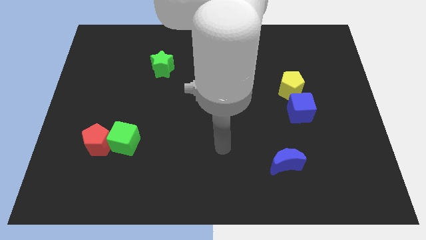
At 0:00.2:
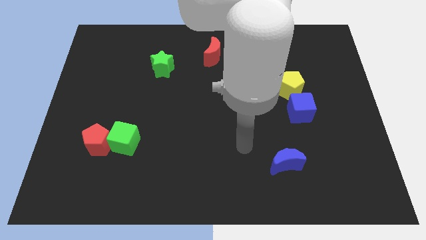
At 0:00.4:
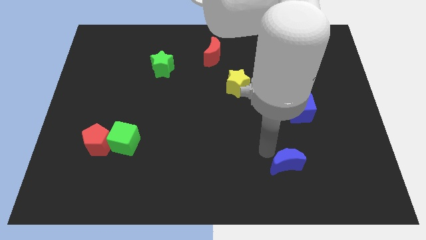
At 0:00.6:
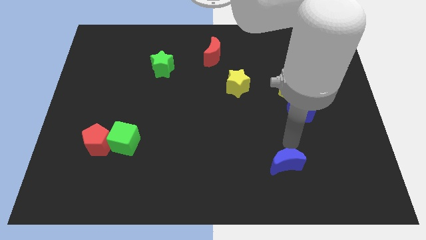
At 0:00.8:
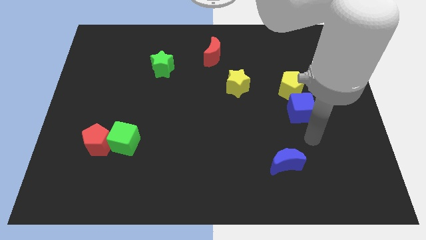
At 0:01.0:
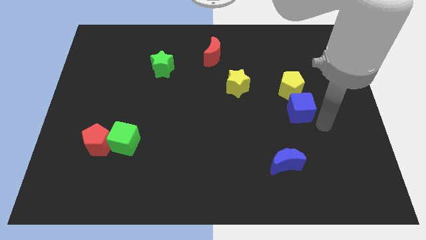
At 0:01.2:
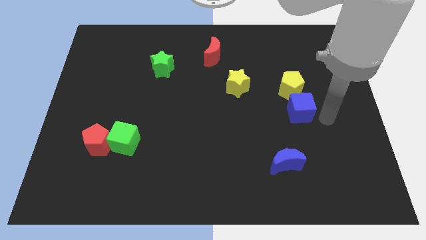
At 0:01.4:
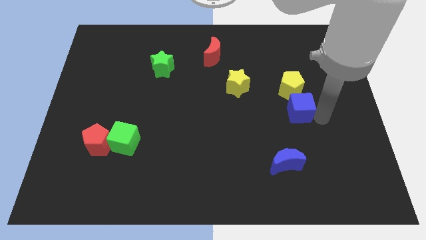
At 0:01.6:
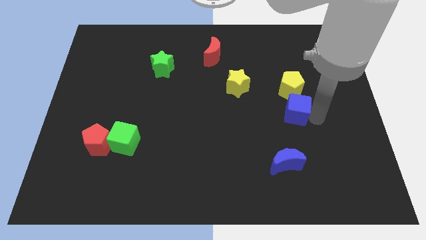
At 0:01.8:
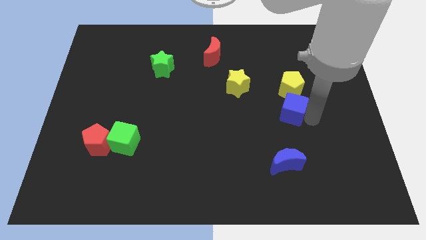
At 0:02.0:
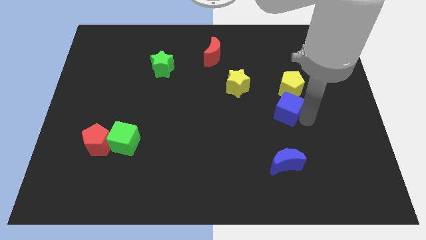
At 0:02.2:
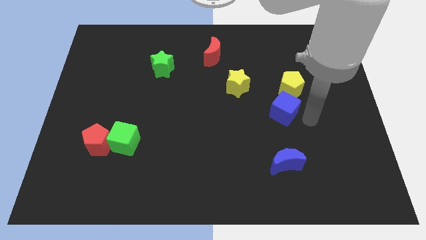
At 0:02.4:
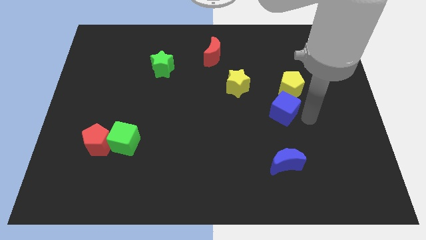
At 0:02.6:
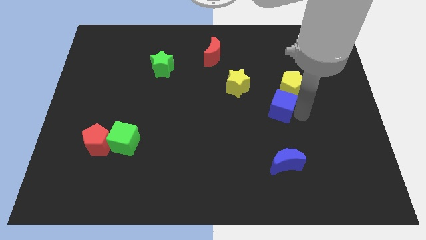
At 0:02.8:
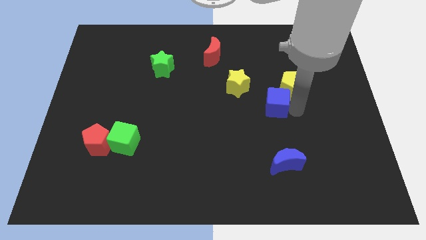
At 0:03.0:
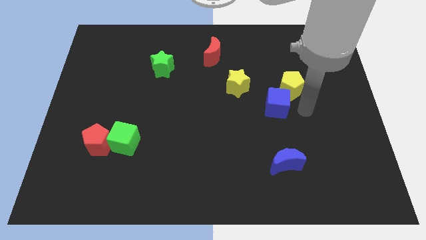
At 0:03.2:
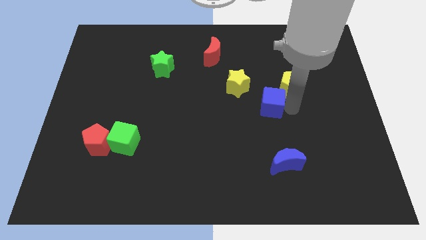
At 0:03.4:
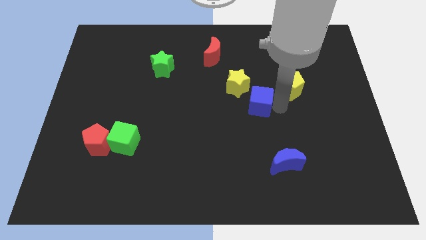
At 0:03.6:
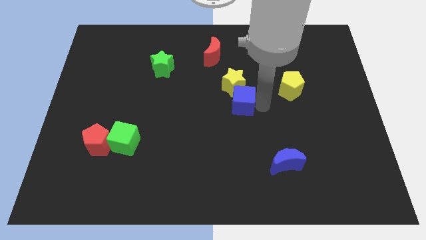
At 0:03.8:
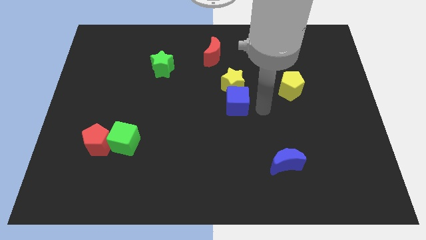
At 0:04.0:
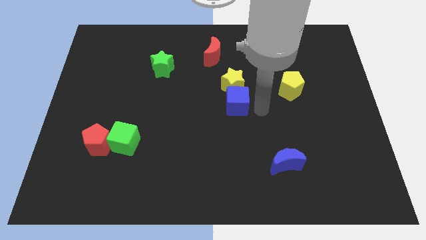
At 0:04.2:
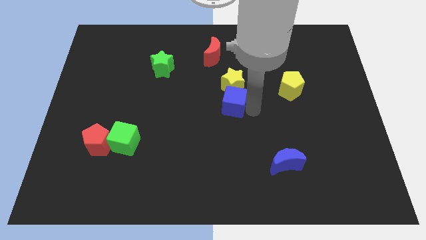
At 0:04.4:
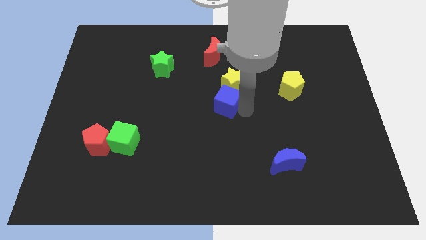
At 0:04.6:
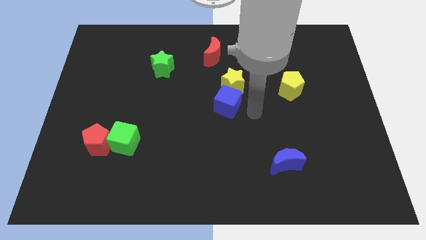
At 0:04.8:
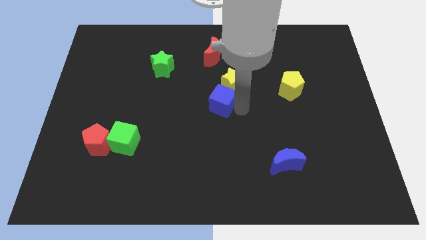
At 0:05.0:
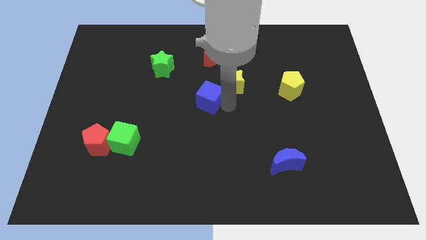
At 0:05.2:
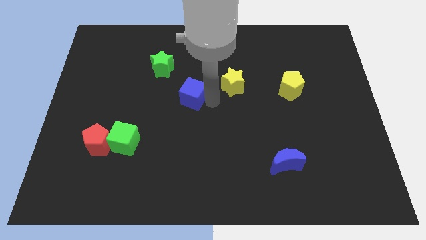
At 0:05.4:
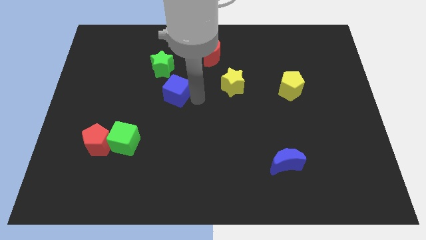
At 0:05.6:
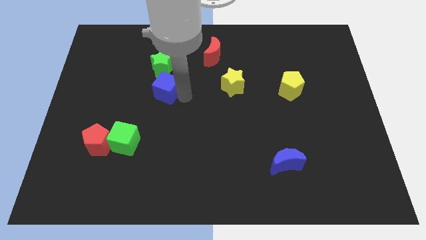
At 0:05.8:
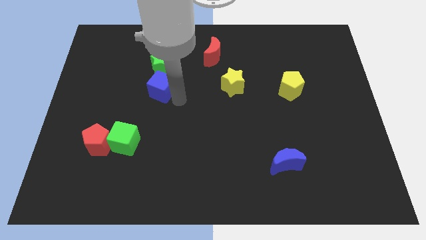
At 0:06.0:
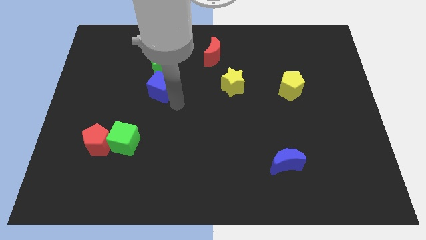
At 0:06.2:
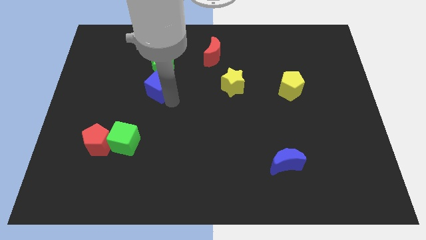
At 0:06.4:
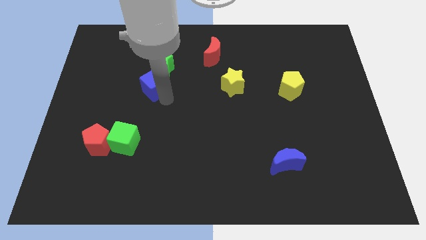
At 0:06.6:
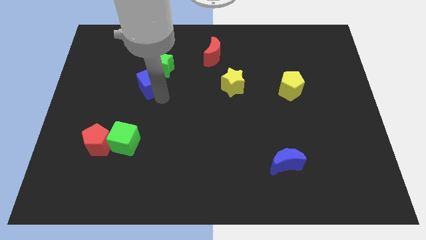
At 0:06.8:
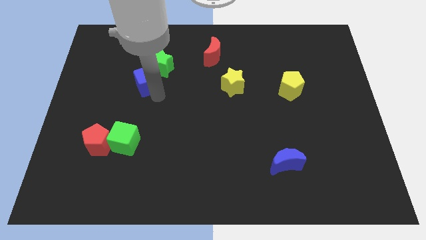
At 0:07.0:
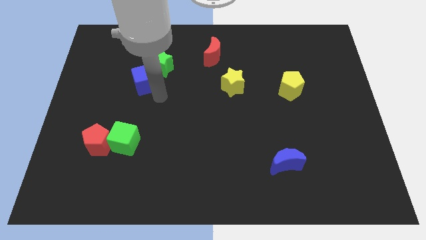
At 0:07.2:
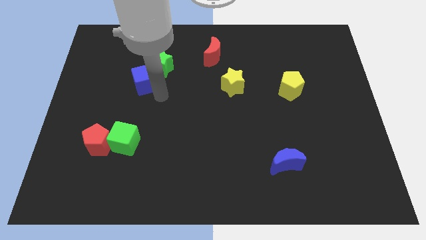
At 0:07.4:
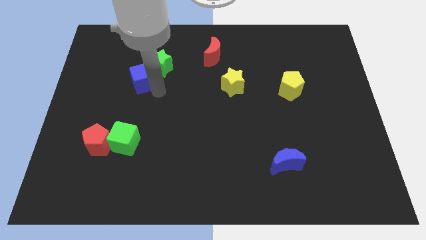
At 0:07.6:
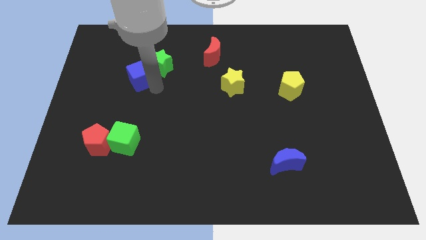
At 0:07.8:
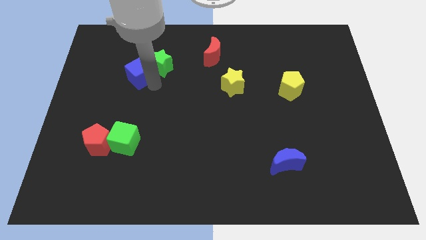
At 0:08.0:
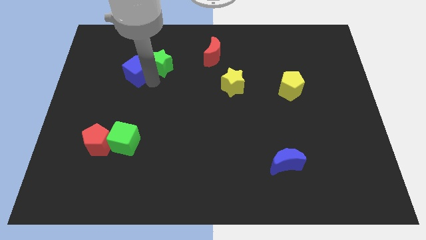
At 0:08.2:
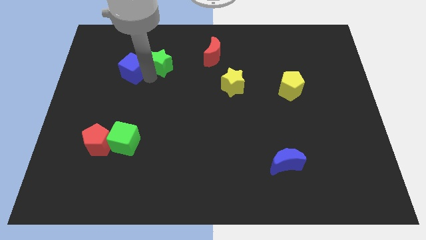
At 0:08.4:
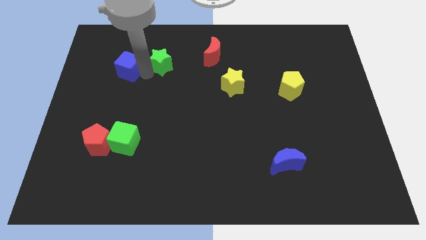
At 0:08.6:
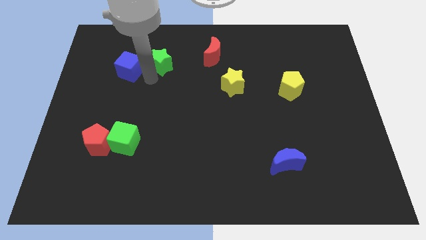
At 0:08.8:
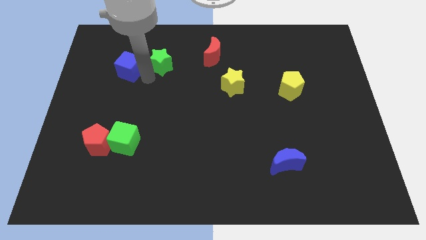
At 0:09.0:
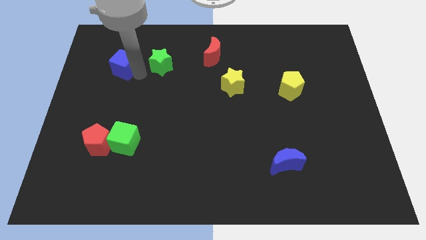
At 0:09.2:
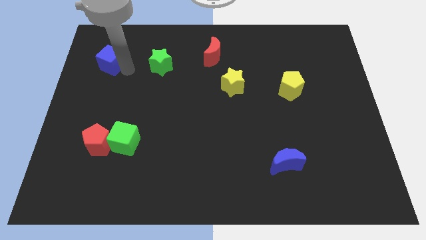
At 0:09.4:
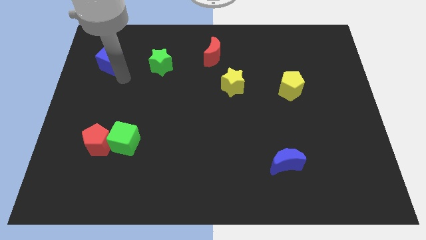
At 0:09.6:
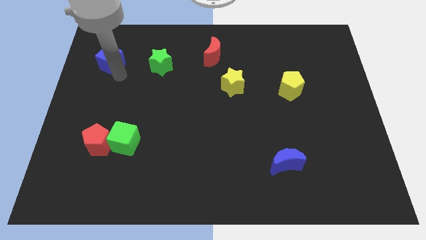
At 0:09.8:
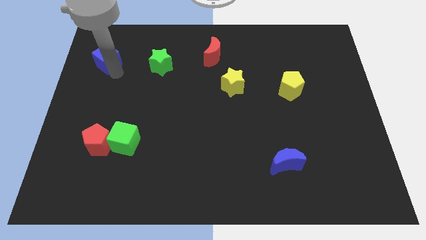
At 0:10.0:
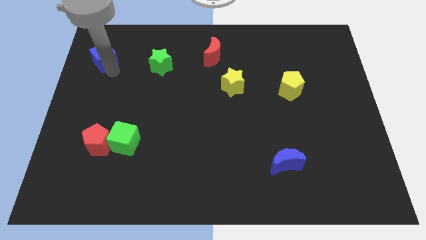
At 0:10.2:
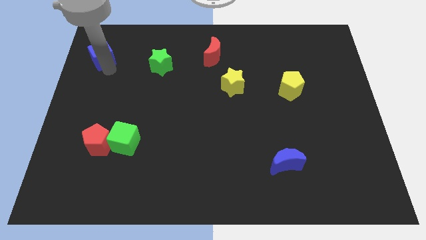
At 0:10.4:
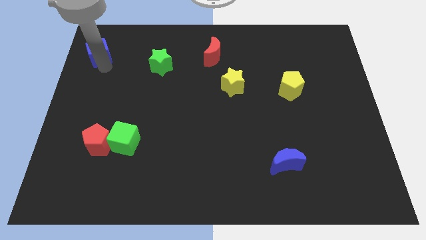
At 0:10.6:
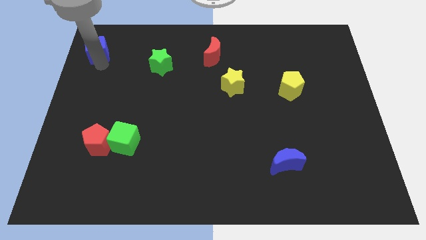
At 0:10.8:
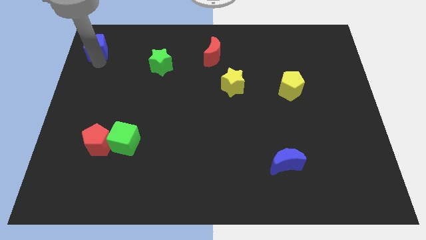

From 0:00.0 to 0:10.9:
move the blue cube to the top left corner

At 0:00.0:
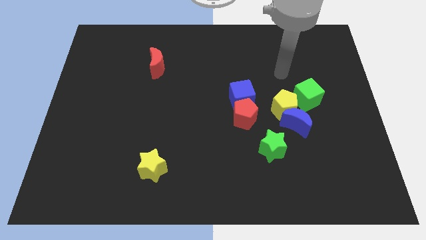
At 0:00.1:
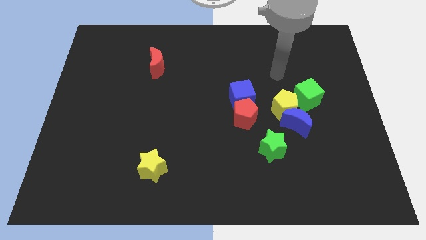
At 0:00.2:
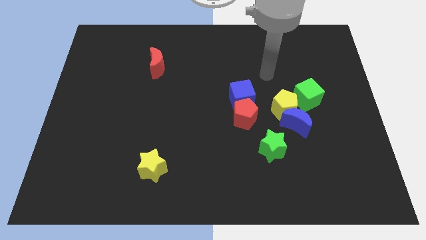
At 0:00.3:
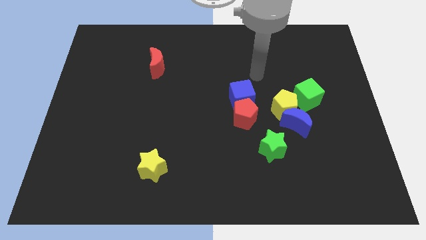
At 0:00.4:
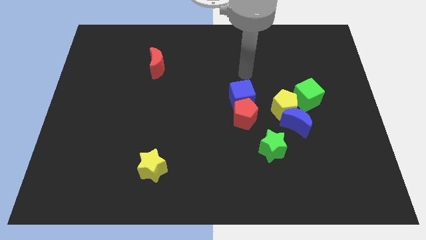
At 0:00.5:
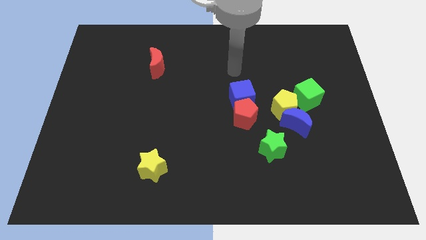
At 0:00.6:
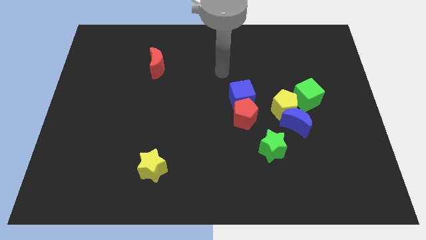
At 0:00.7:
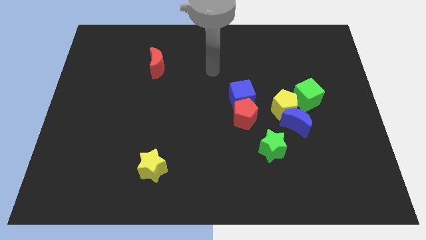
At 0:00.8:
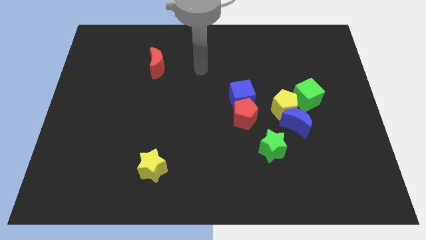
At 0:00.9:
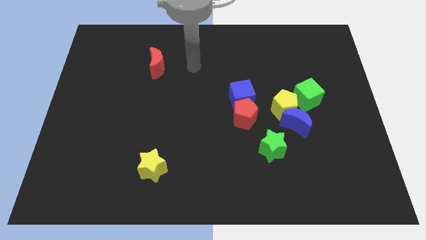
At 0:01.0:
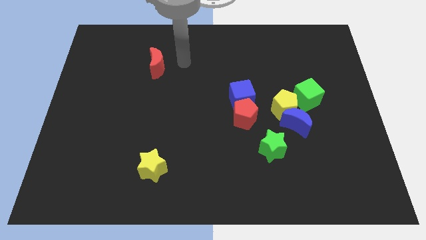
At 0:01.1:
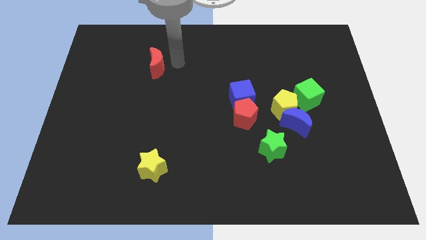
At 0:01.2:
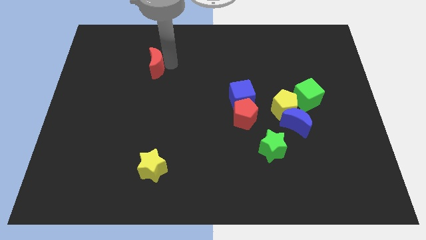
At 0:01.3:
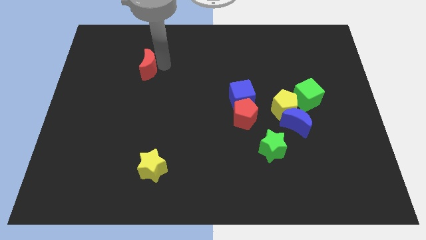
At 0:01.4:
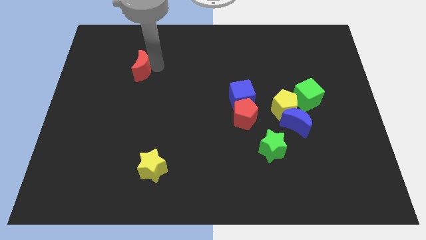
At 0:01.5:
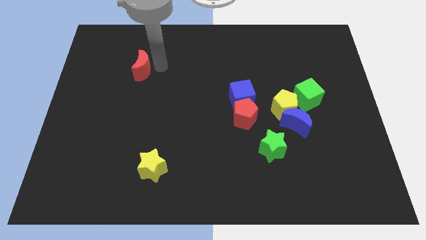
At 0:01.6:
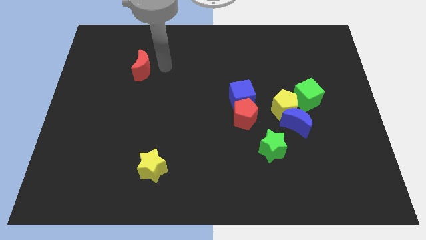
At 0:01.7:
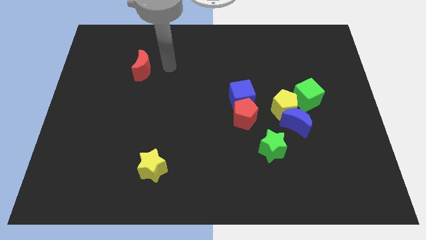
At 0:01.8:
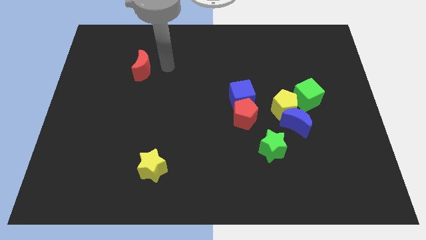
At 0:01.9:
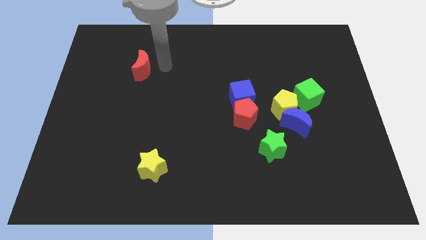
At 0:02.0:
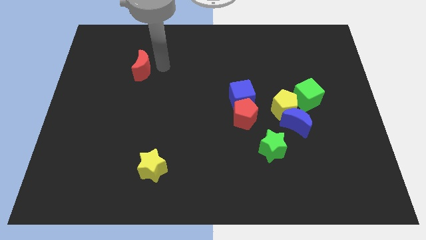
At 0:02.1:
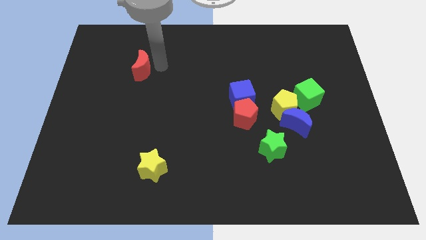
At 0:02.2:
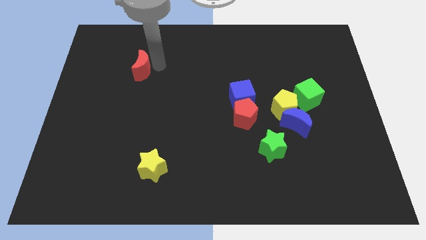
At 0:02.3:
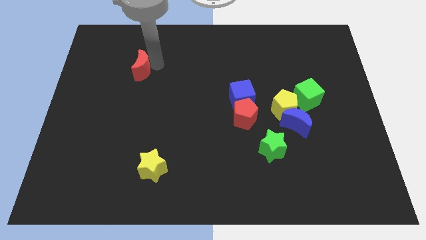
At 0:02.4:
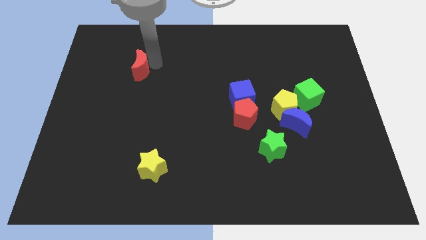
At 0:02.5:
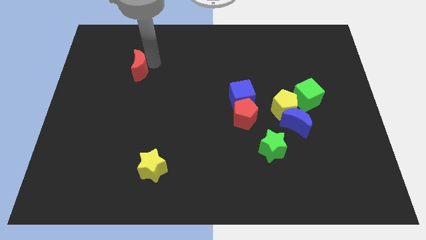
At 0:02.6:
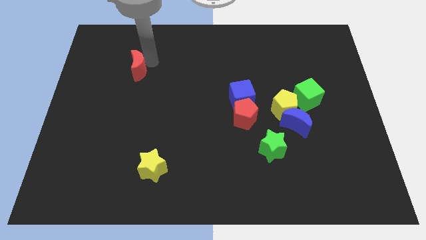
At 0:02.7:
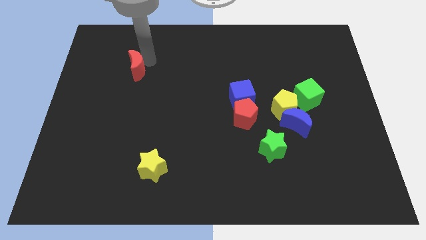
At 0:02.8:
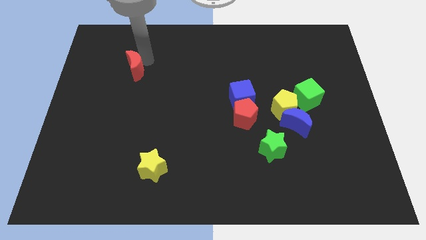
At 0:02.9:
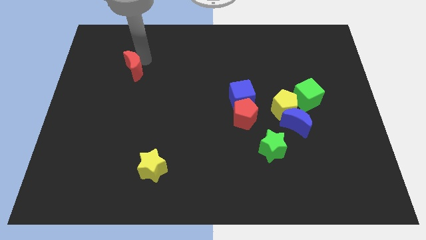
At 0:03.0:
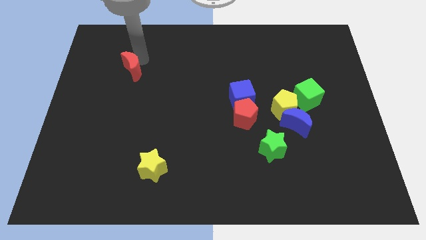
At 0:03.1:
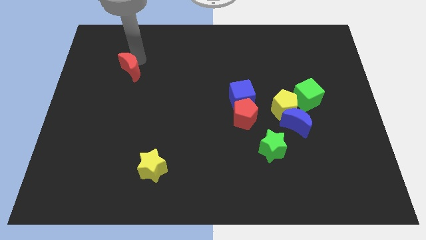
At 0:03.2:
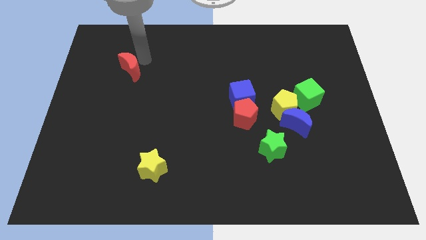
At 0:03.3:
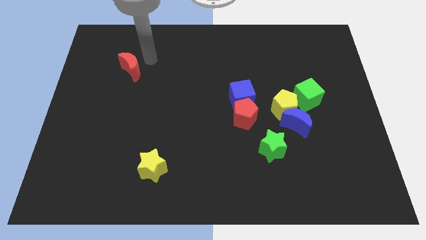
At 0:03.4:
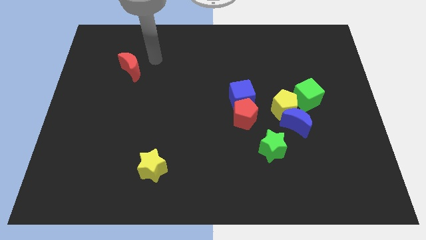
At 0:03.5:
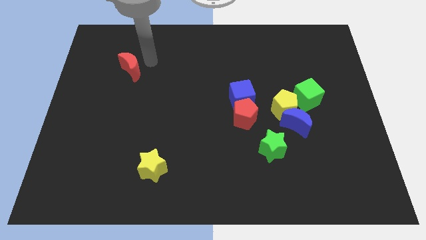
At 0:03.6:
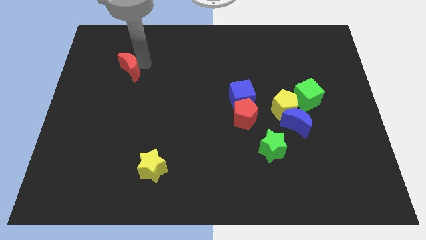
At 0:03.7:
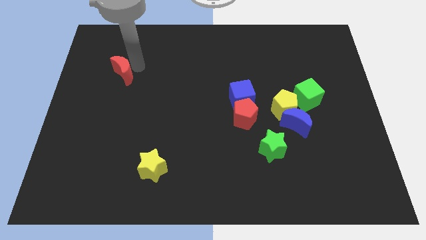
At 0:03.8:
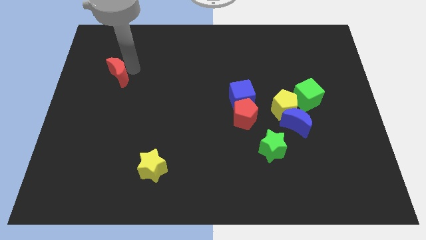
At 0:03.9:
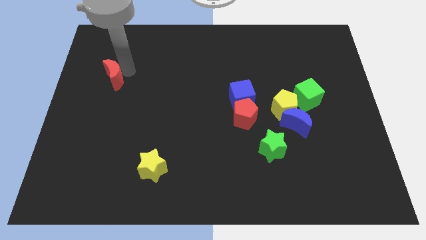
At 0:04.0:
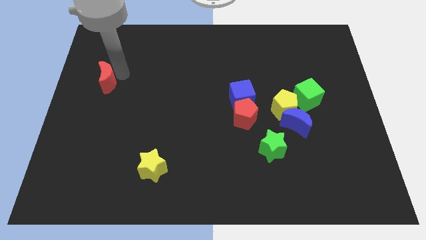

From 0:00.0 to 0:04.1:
put the red moon to the left side
